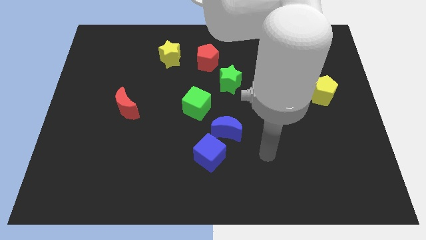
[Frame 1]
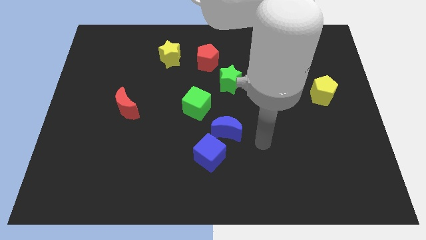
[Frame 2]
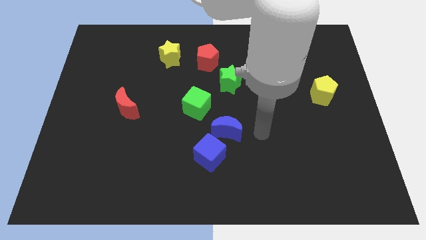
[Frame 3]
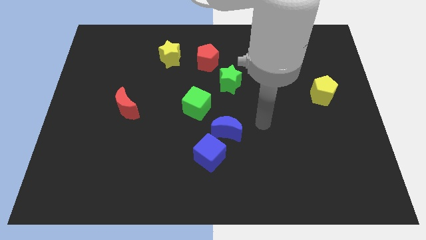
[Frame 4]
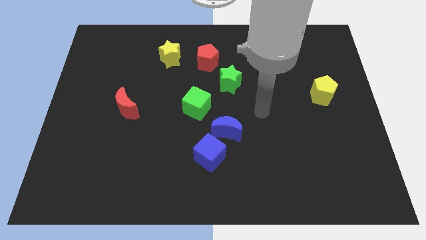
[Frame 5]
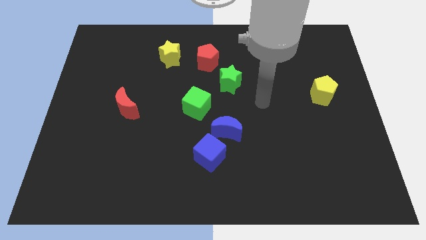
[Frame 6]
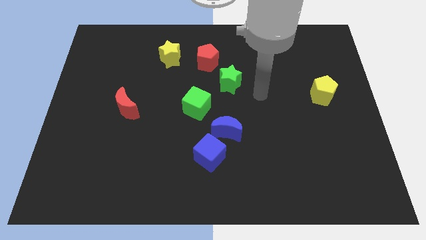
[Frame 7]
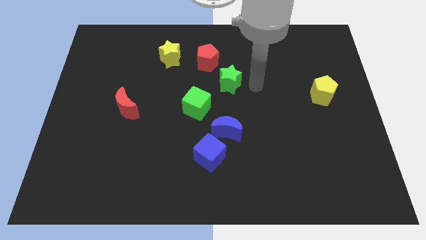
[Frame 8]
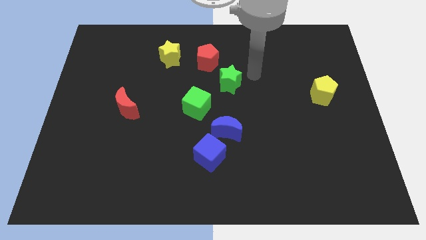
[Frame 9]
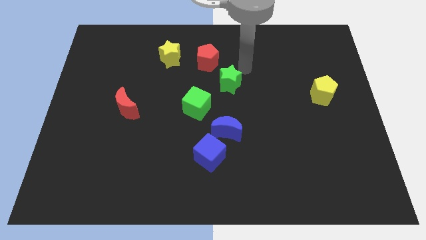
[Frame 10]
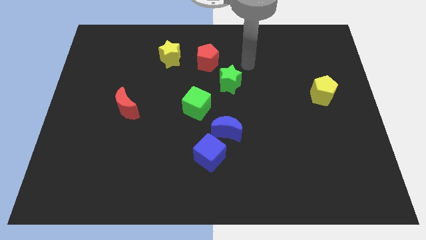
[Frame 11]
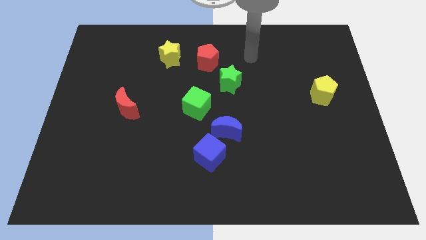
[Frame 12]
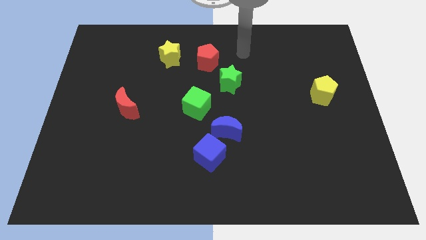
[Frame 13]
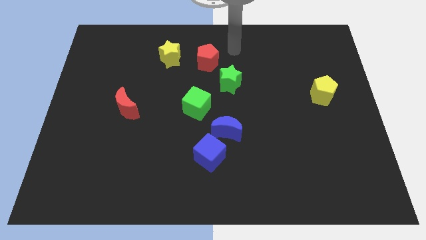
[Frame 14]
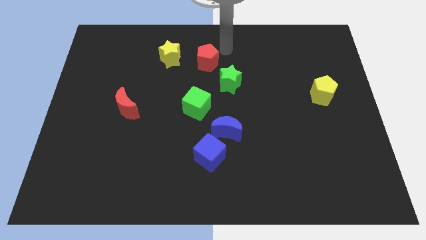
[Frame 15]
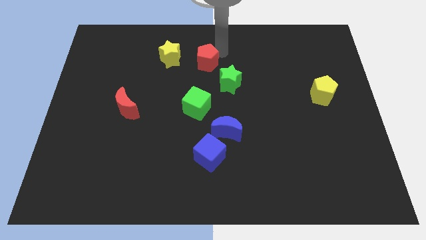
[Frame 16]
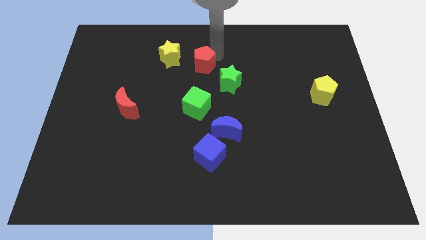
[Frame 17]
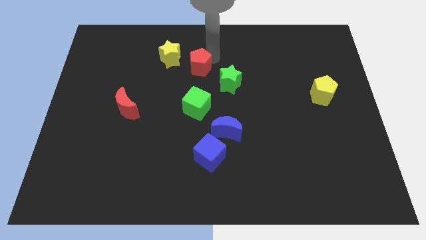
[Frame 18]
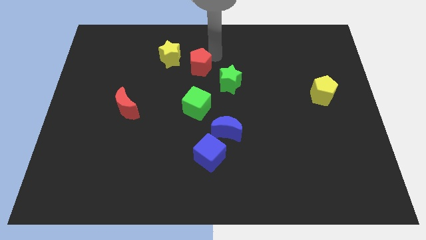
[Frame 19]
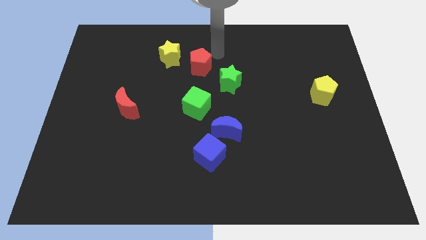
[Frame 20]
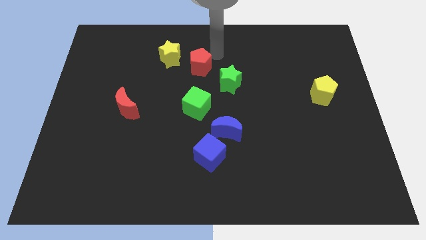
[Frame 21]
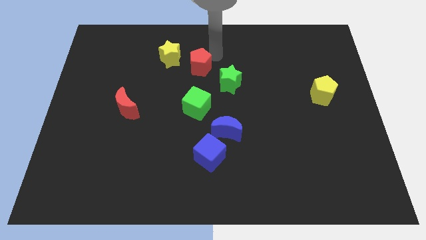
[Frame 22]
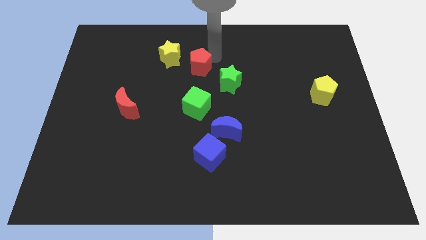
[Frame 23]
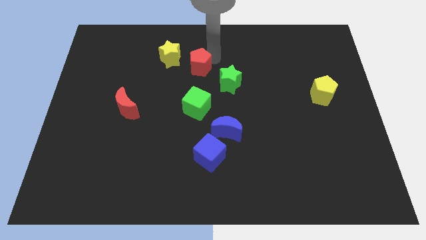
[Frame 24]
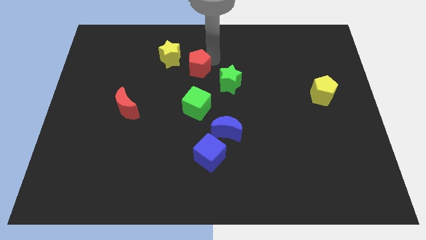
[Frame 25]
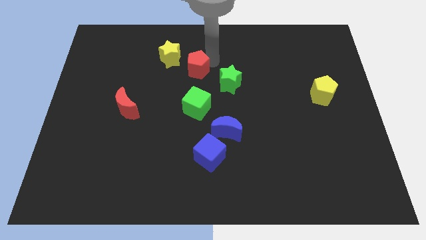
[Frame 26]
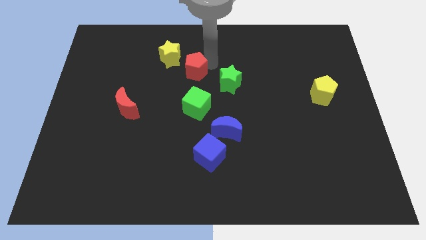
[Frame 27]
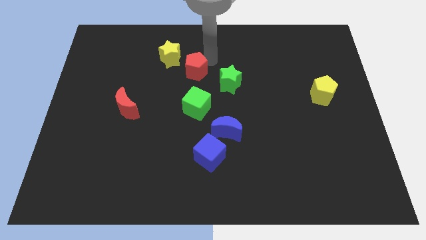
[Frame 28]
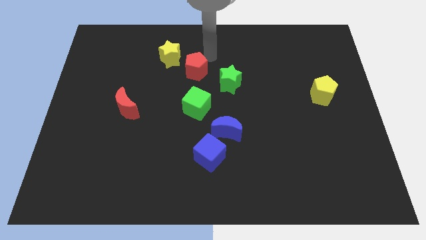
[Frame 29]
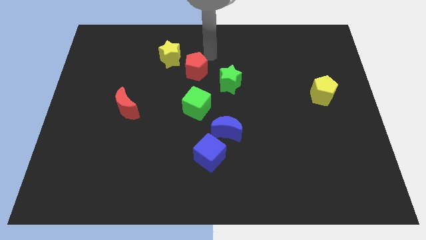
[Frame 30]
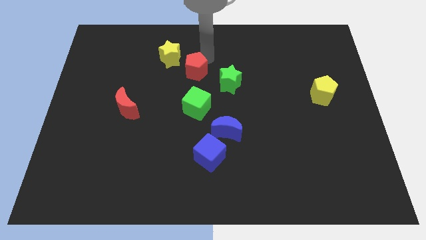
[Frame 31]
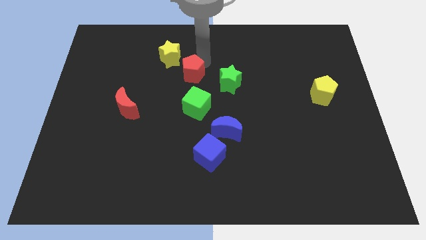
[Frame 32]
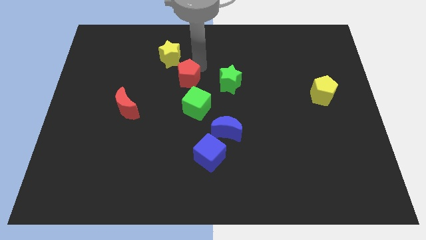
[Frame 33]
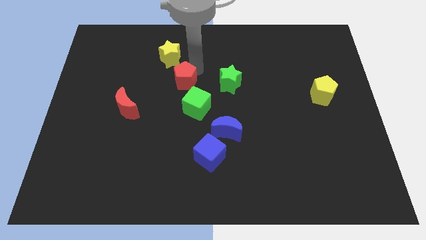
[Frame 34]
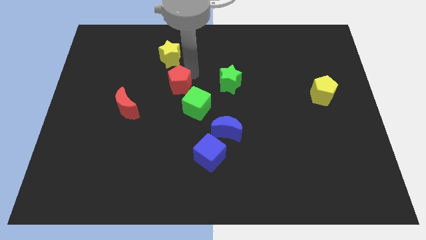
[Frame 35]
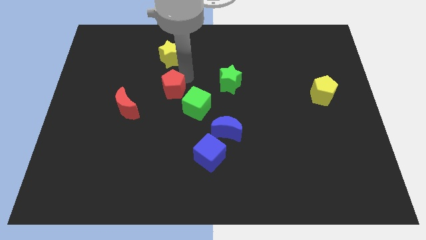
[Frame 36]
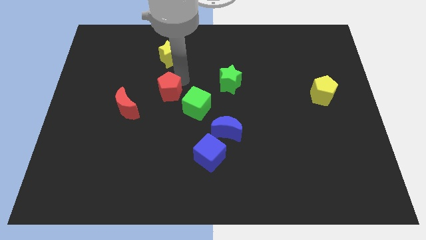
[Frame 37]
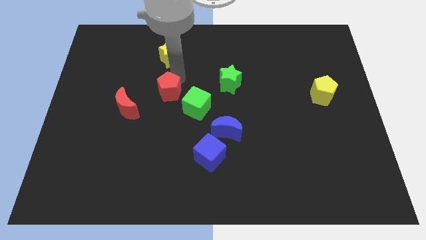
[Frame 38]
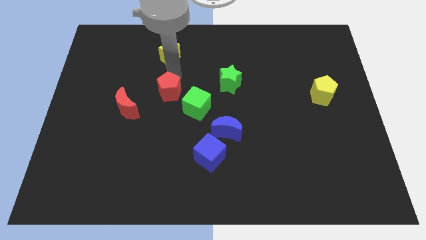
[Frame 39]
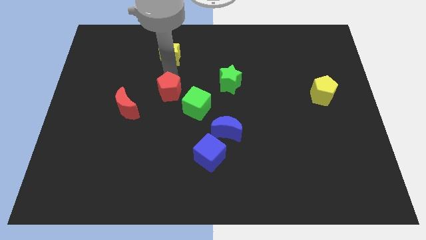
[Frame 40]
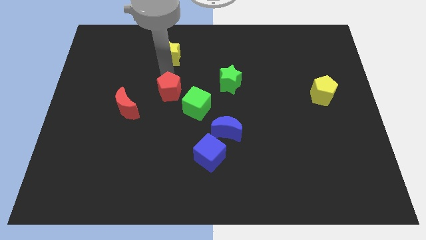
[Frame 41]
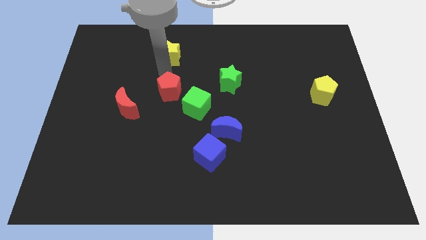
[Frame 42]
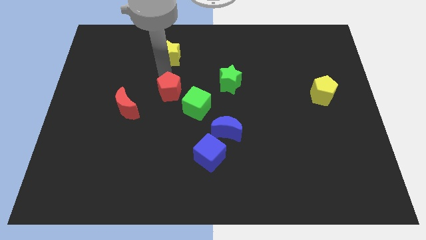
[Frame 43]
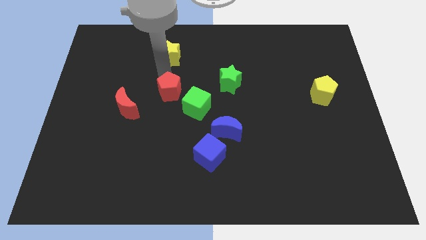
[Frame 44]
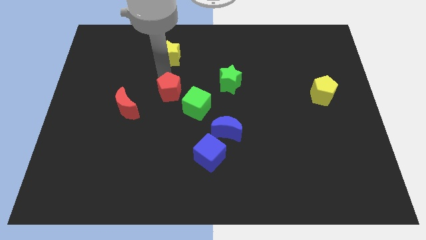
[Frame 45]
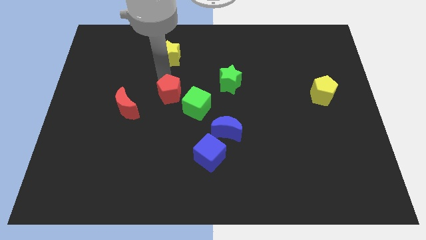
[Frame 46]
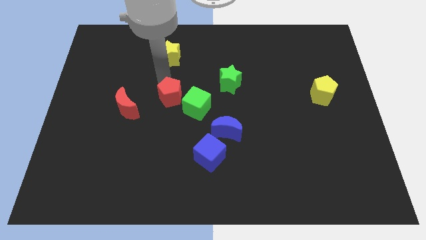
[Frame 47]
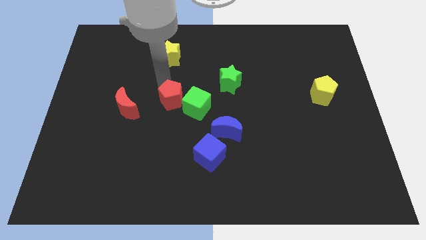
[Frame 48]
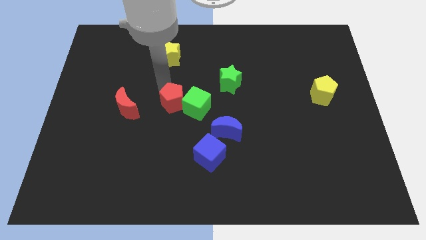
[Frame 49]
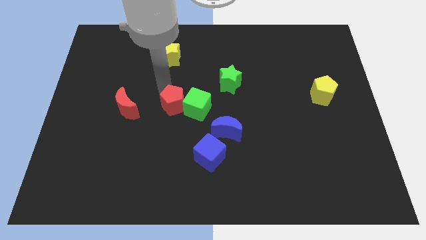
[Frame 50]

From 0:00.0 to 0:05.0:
push the red pentagon diagonally down and to the left of the green cube

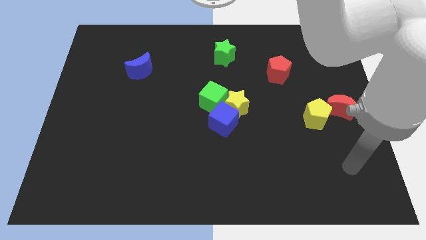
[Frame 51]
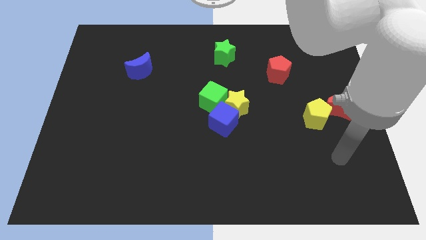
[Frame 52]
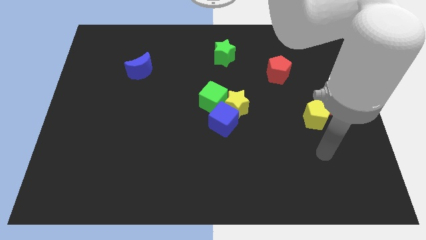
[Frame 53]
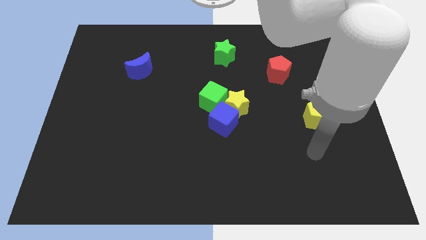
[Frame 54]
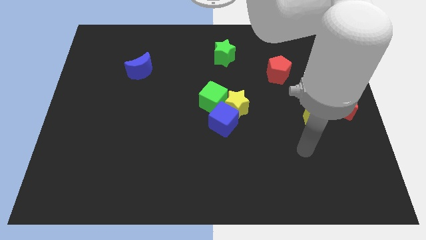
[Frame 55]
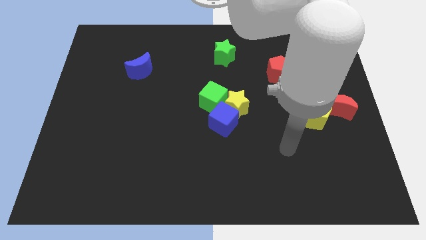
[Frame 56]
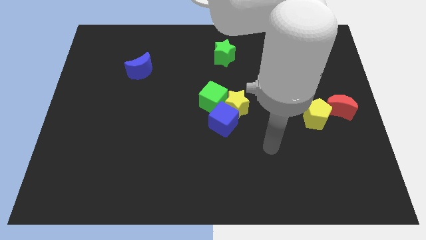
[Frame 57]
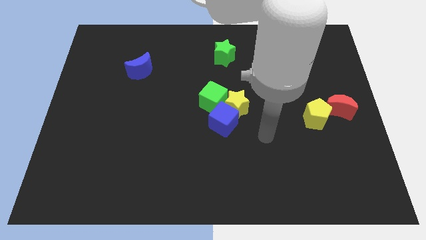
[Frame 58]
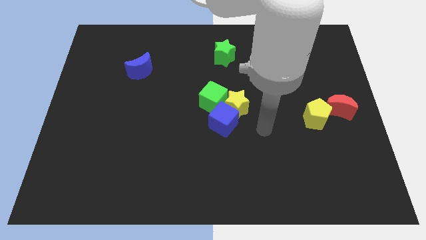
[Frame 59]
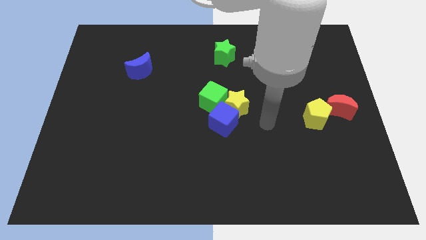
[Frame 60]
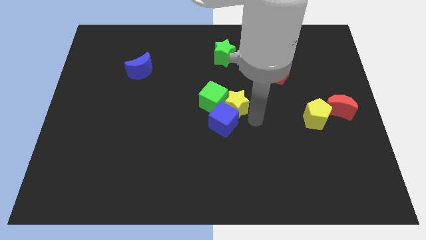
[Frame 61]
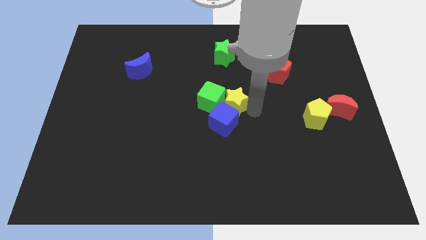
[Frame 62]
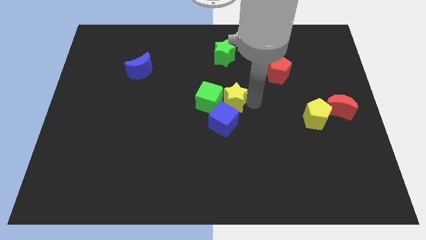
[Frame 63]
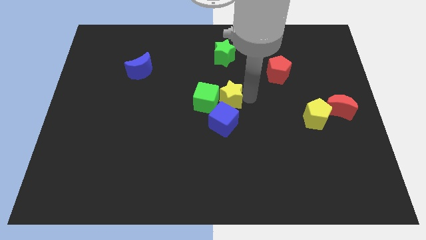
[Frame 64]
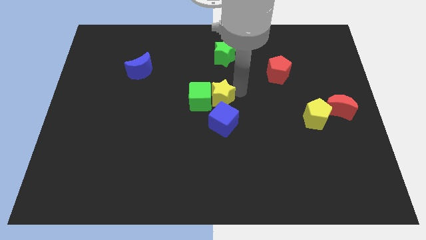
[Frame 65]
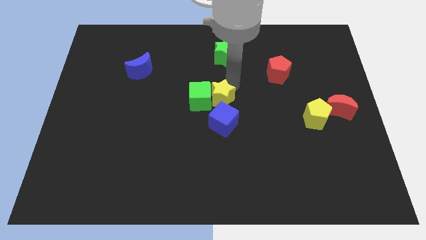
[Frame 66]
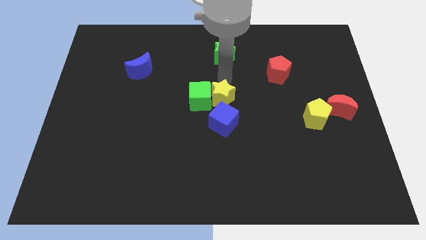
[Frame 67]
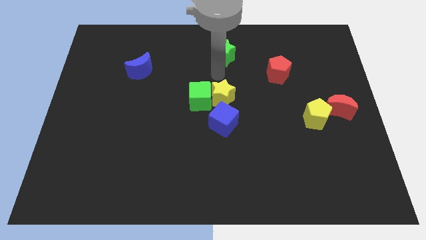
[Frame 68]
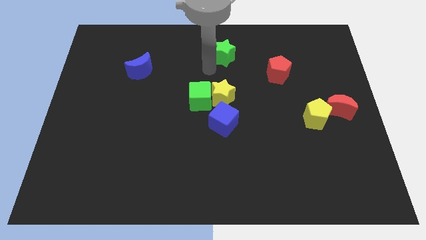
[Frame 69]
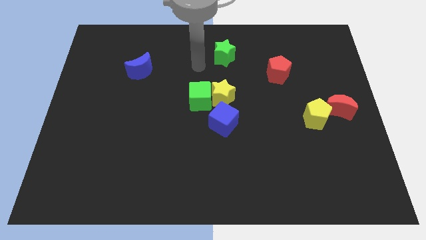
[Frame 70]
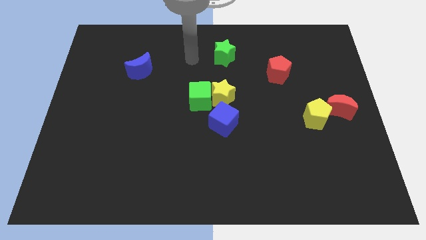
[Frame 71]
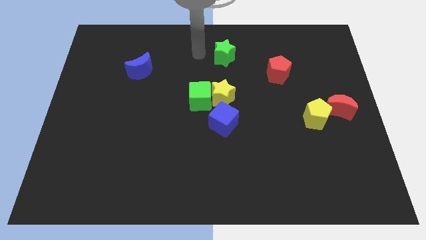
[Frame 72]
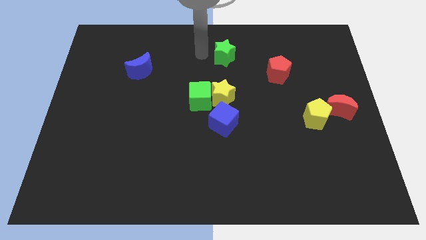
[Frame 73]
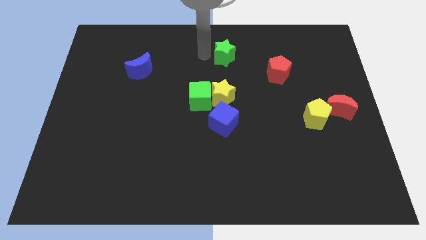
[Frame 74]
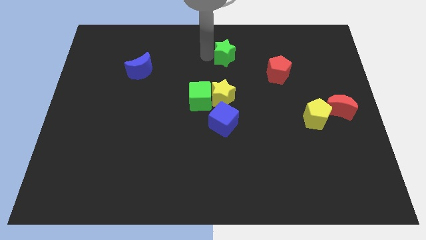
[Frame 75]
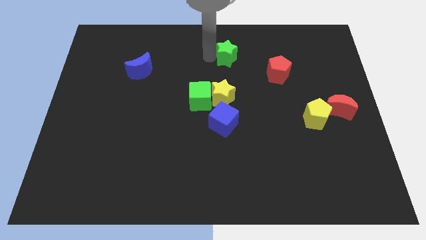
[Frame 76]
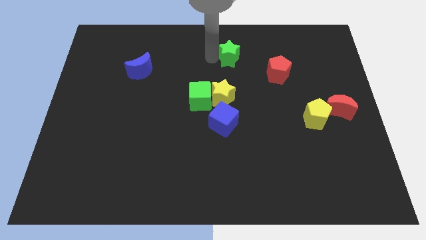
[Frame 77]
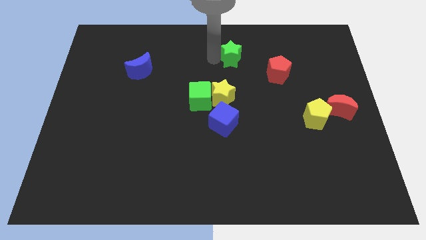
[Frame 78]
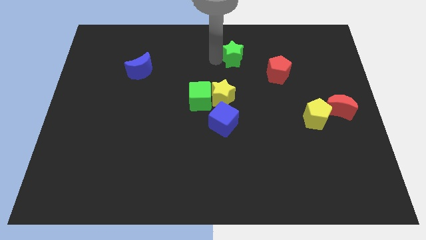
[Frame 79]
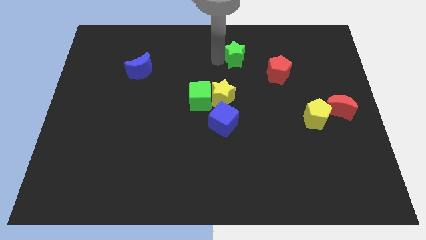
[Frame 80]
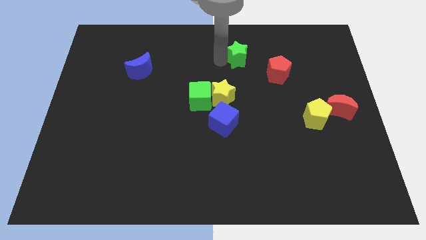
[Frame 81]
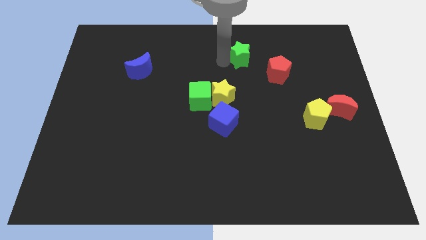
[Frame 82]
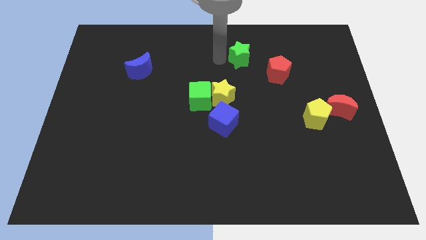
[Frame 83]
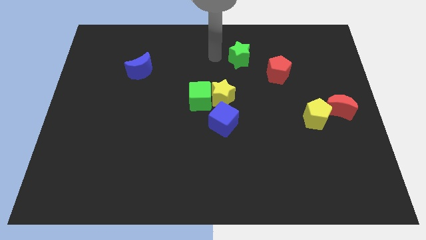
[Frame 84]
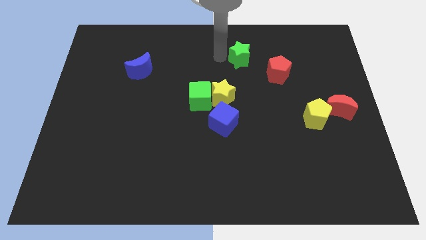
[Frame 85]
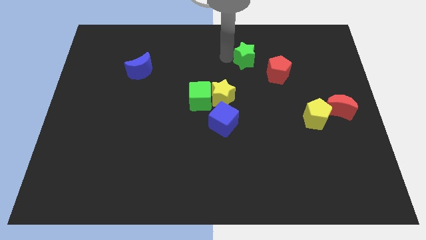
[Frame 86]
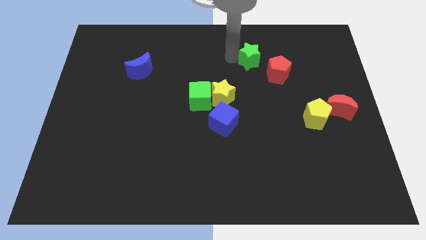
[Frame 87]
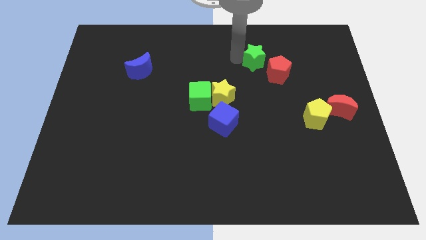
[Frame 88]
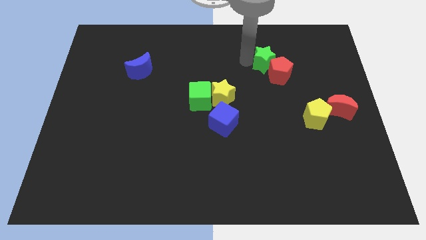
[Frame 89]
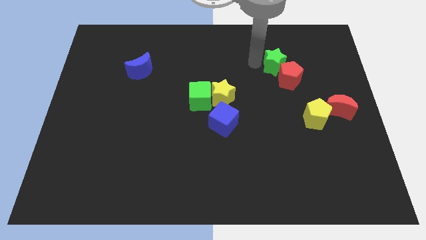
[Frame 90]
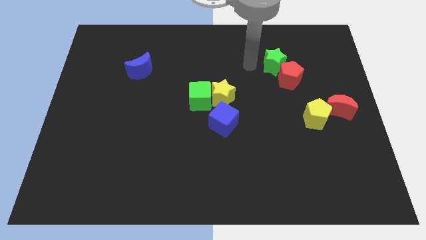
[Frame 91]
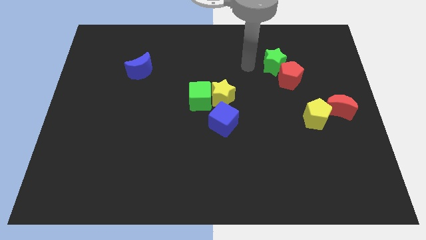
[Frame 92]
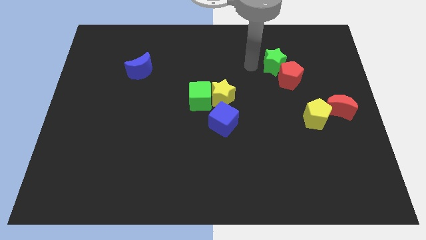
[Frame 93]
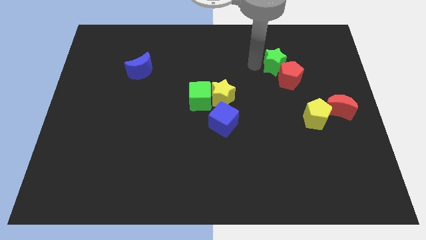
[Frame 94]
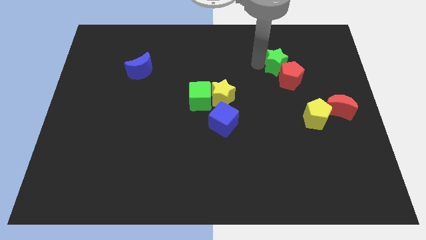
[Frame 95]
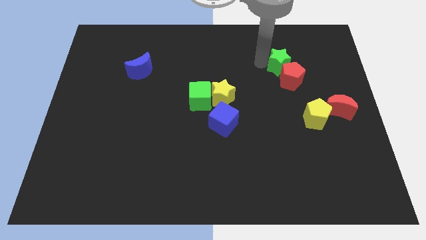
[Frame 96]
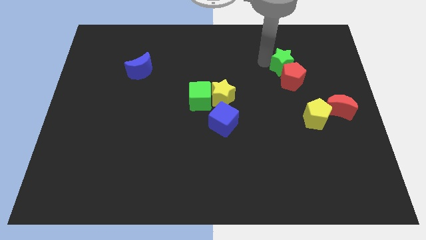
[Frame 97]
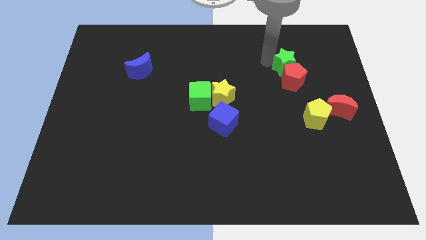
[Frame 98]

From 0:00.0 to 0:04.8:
move the green star diagonally up and to the right of the red pentagon
